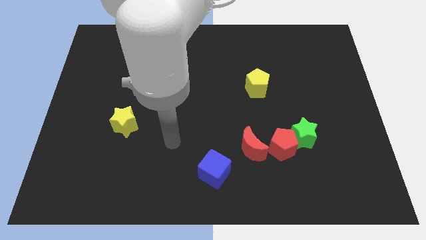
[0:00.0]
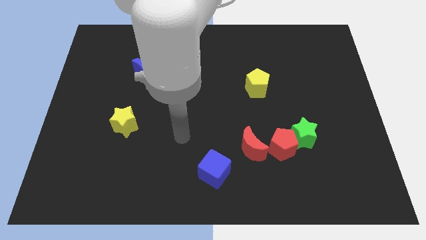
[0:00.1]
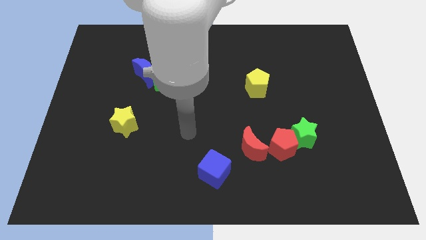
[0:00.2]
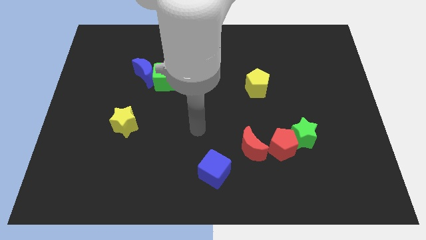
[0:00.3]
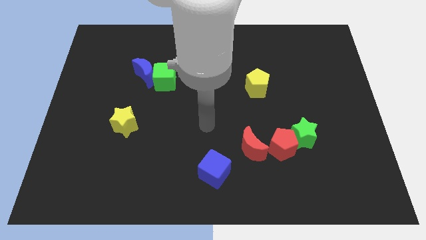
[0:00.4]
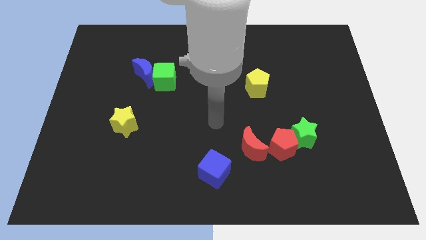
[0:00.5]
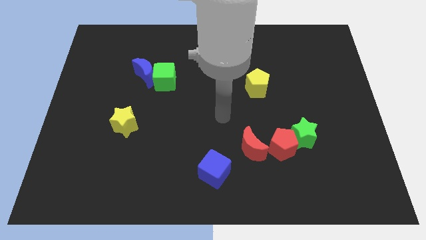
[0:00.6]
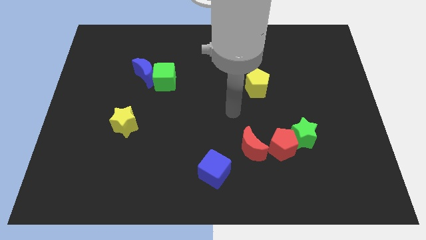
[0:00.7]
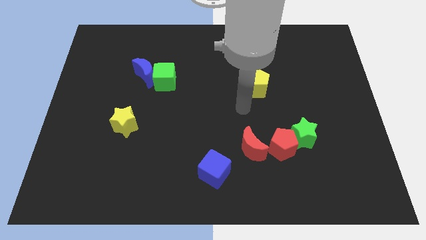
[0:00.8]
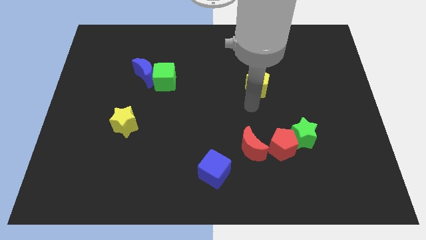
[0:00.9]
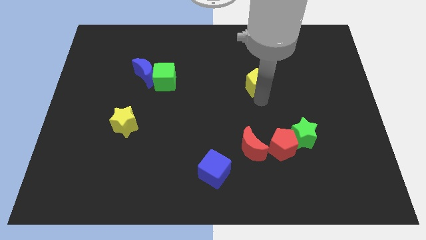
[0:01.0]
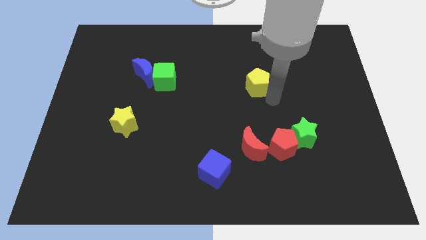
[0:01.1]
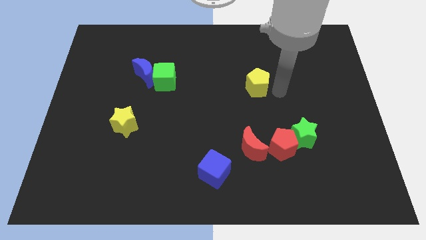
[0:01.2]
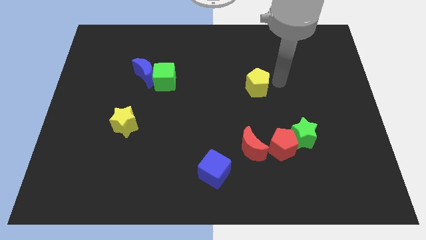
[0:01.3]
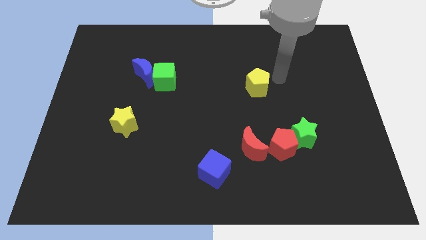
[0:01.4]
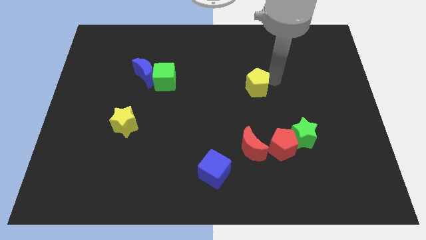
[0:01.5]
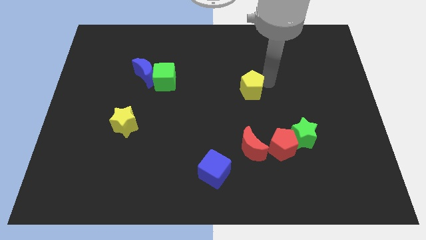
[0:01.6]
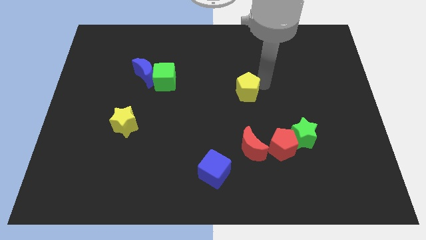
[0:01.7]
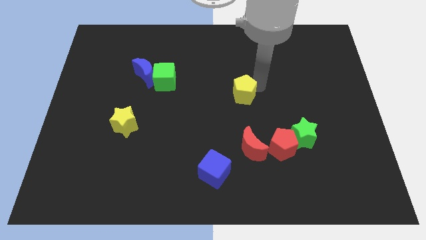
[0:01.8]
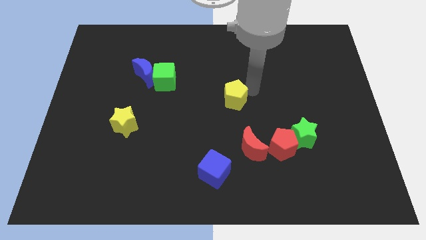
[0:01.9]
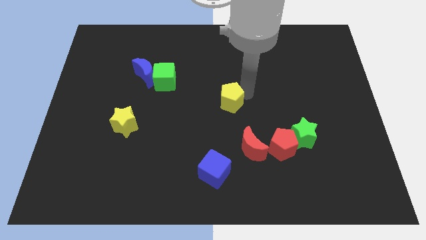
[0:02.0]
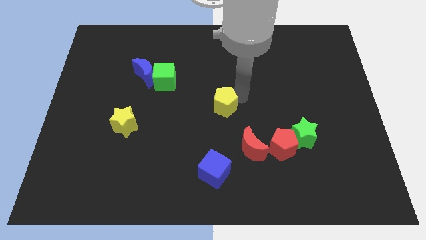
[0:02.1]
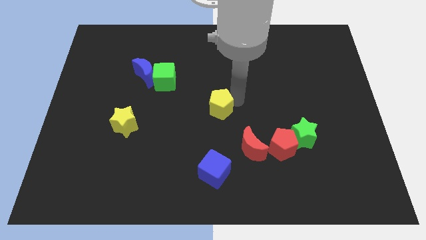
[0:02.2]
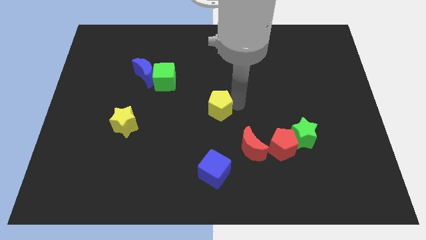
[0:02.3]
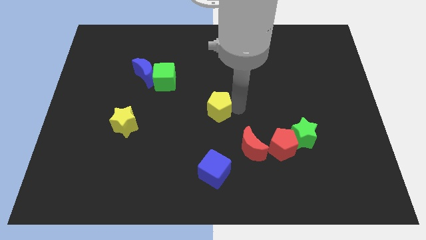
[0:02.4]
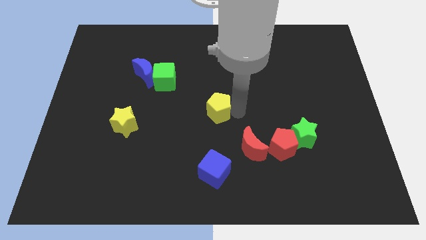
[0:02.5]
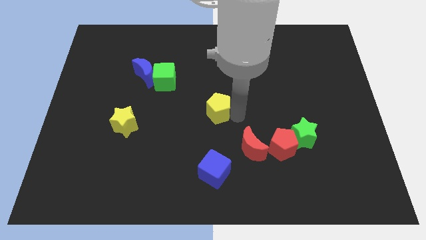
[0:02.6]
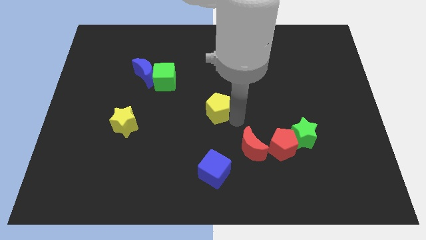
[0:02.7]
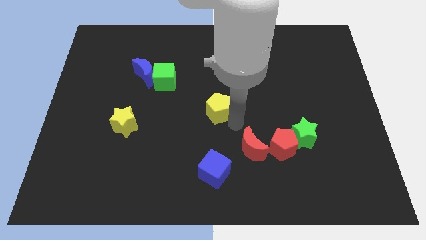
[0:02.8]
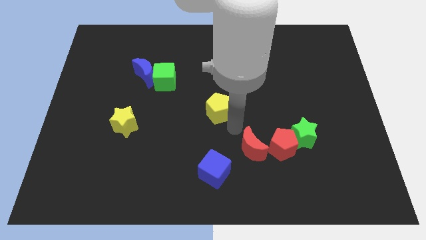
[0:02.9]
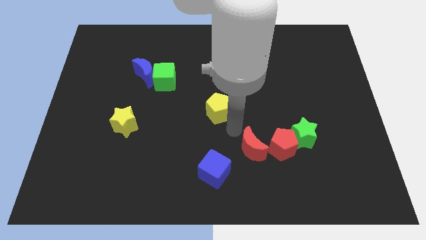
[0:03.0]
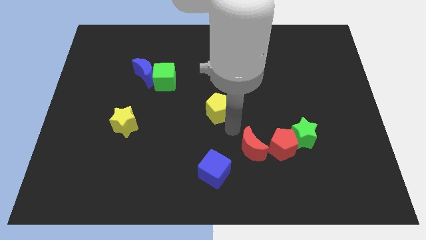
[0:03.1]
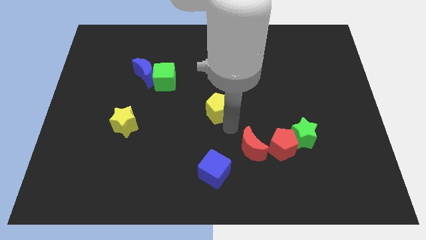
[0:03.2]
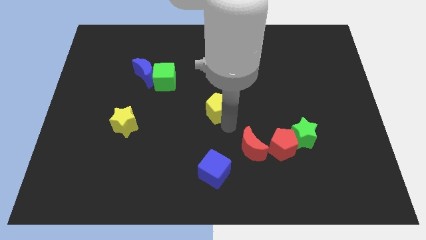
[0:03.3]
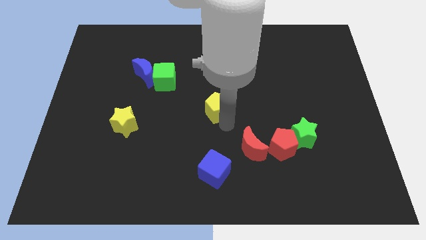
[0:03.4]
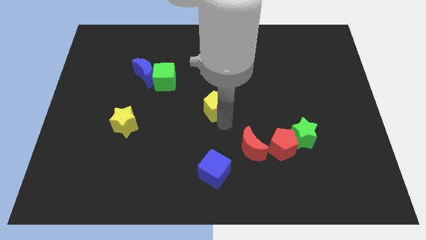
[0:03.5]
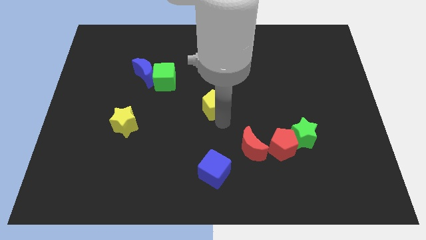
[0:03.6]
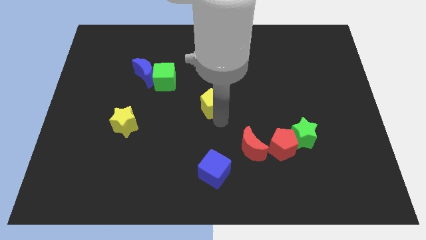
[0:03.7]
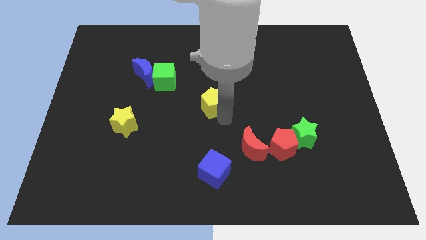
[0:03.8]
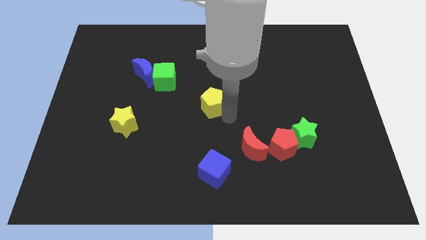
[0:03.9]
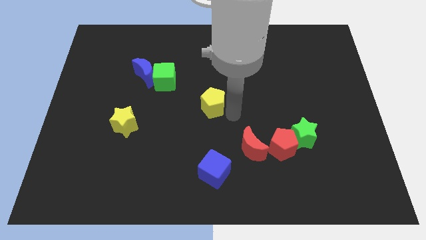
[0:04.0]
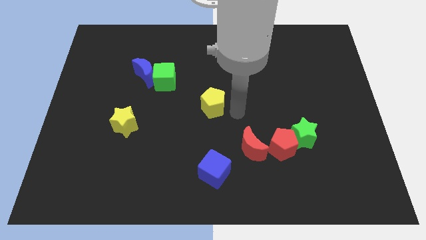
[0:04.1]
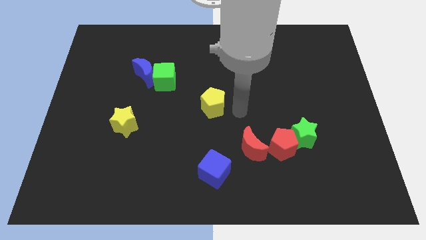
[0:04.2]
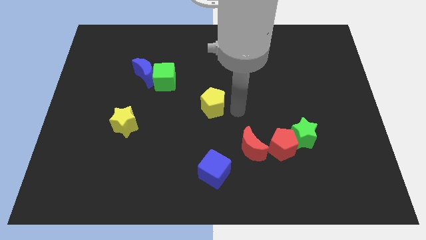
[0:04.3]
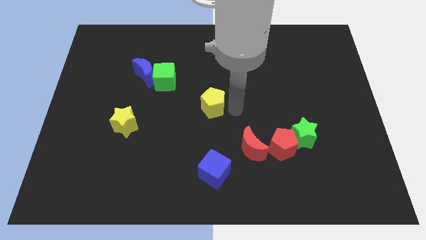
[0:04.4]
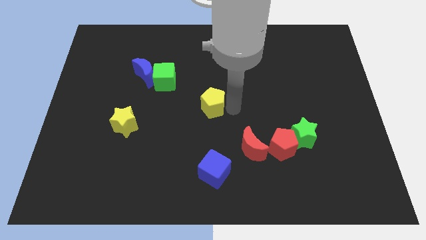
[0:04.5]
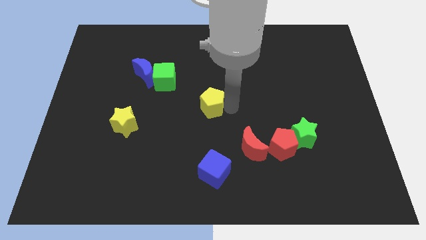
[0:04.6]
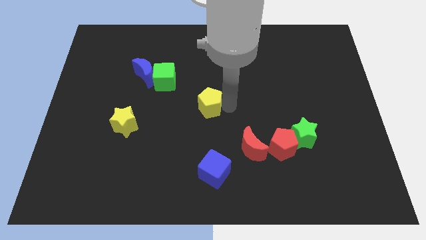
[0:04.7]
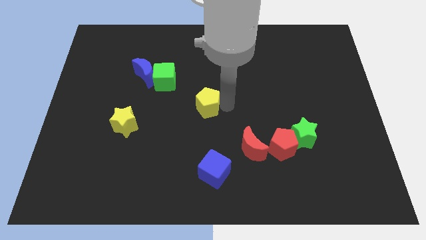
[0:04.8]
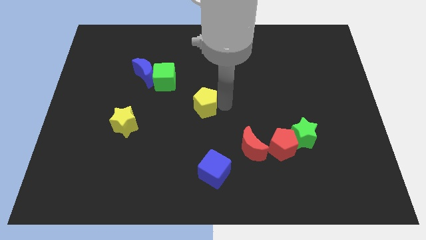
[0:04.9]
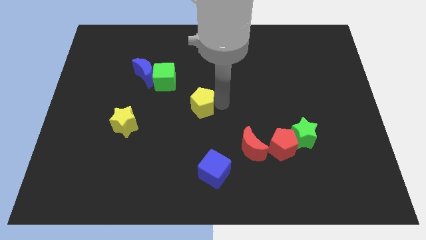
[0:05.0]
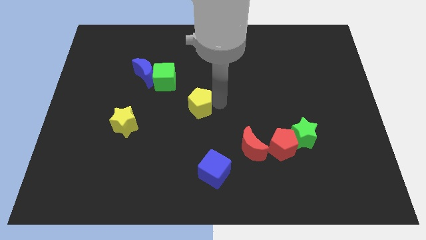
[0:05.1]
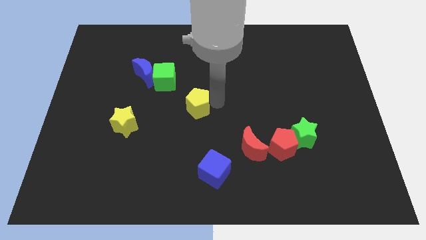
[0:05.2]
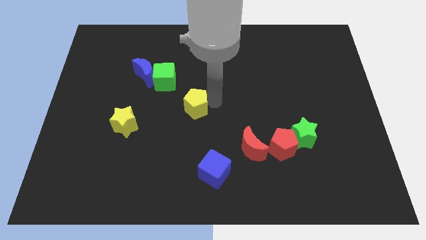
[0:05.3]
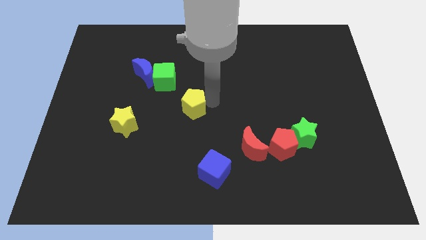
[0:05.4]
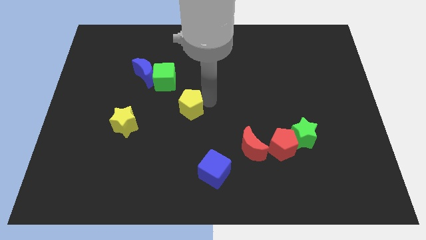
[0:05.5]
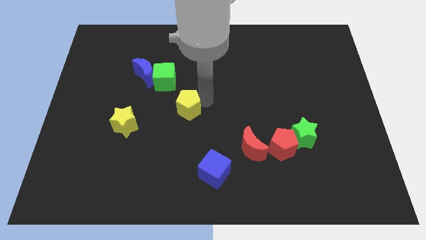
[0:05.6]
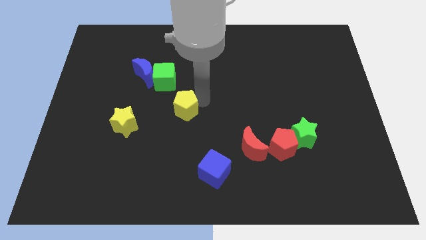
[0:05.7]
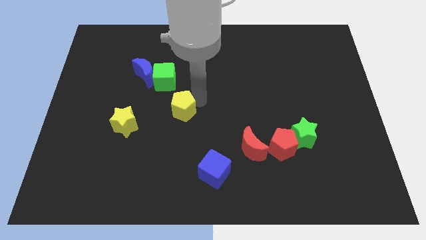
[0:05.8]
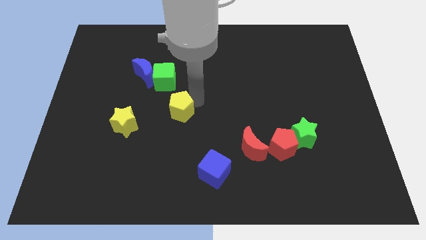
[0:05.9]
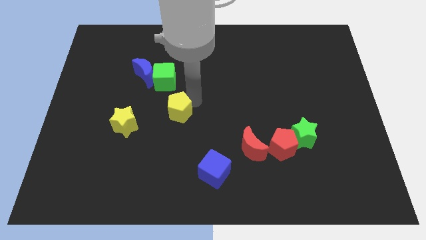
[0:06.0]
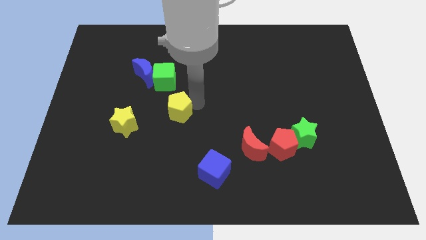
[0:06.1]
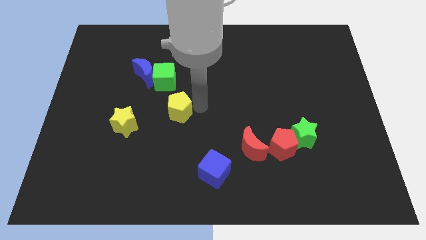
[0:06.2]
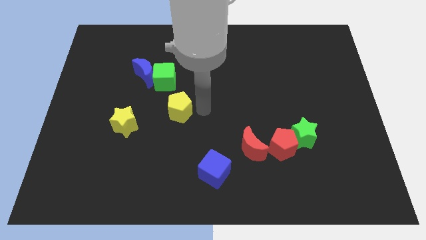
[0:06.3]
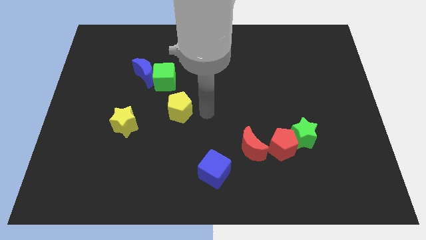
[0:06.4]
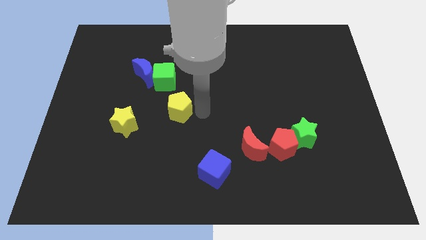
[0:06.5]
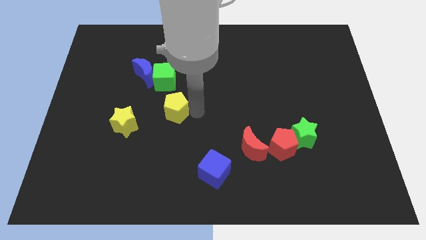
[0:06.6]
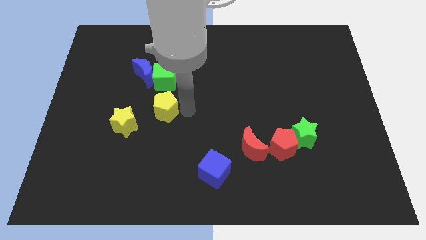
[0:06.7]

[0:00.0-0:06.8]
slide the yellow pentagon to the left

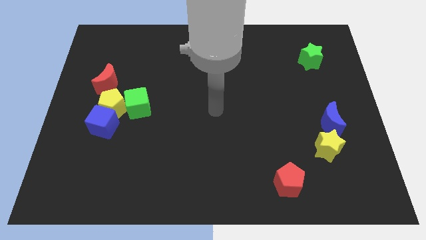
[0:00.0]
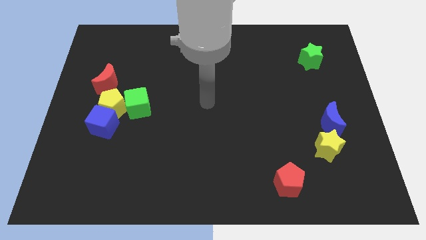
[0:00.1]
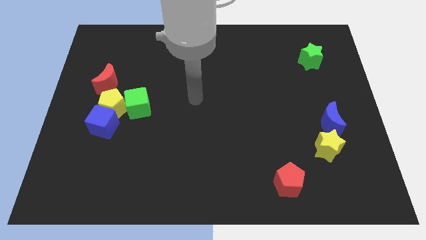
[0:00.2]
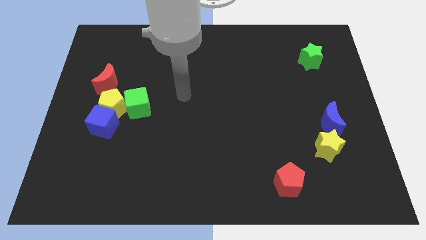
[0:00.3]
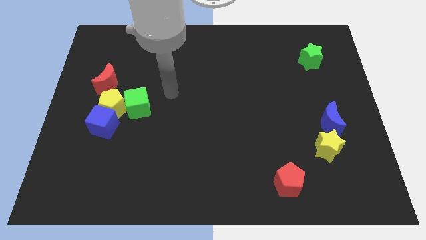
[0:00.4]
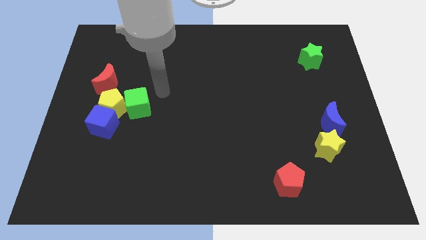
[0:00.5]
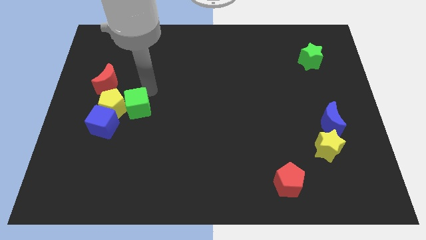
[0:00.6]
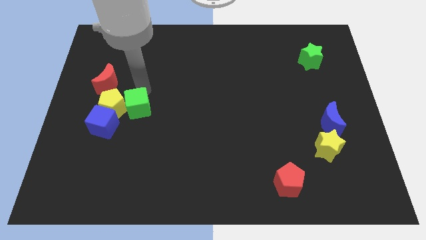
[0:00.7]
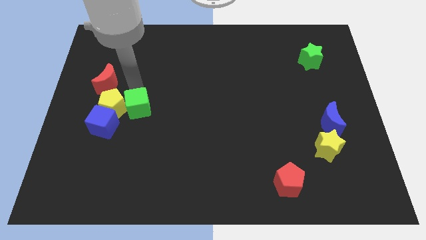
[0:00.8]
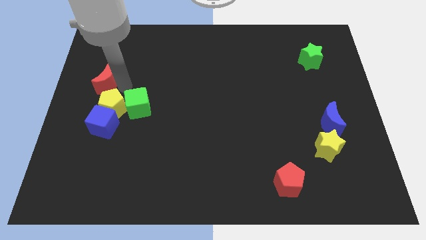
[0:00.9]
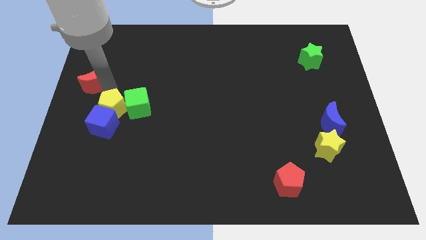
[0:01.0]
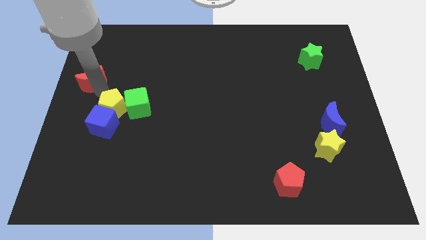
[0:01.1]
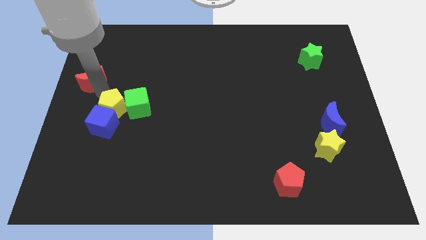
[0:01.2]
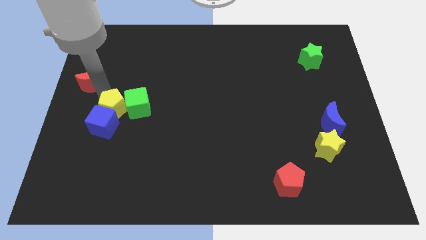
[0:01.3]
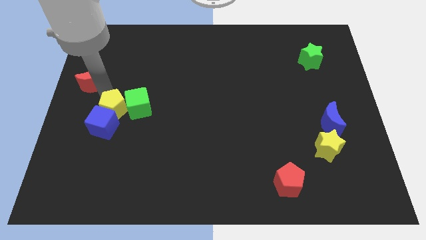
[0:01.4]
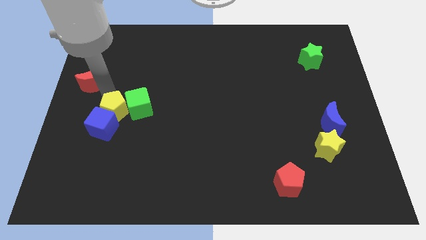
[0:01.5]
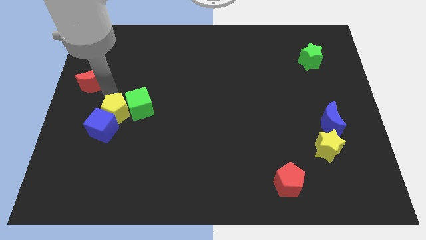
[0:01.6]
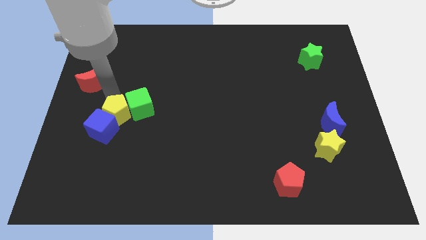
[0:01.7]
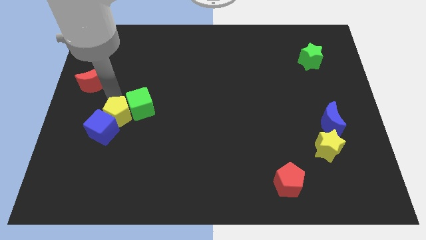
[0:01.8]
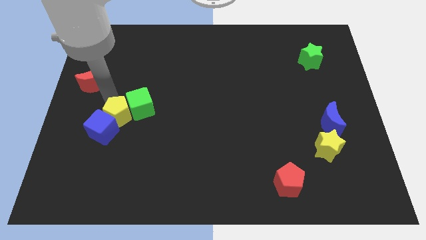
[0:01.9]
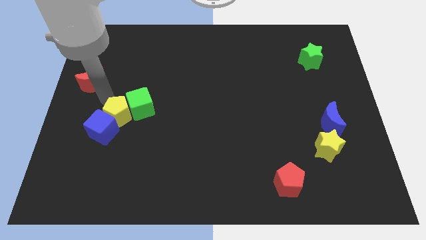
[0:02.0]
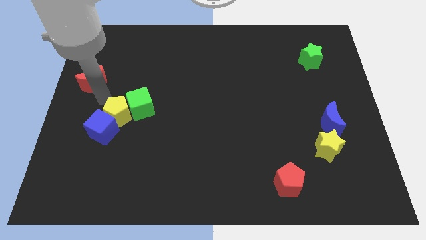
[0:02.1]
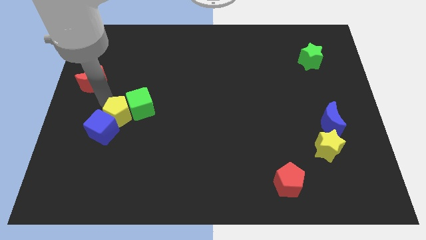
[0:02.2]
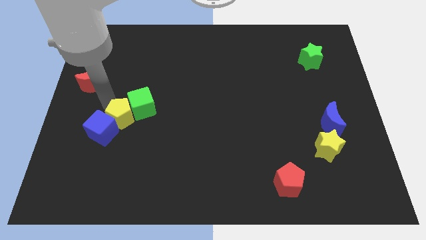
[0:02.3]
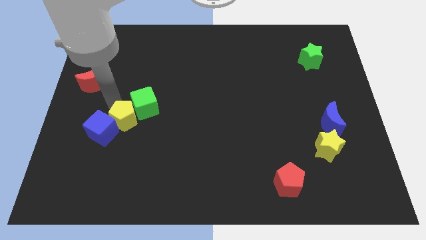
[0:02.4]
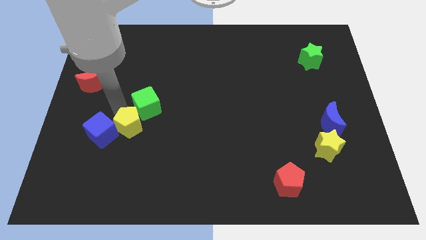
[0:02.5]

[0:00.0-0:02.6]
slightly slide the yellow pentagon down and to the right
